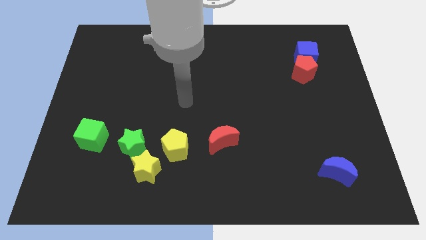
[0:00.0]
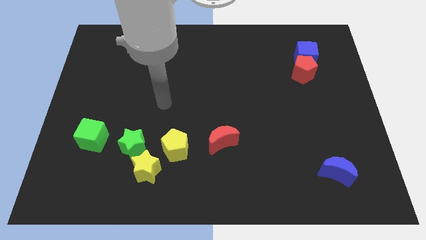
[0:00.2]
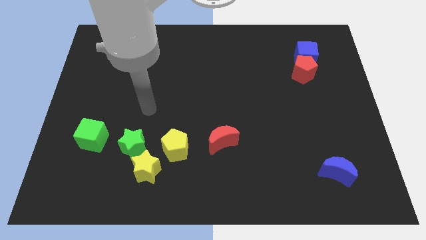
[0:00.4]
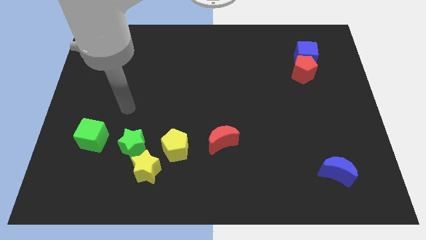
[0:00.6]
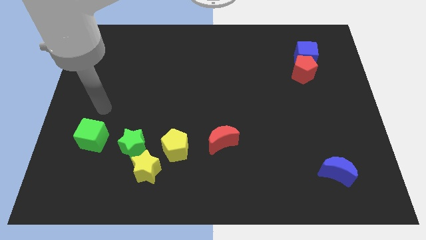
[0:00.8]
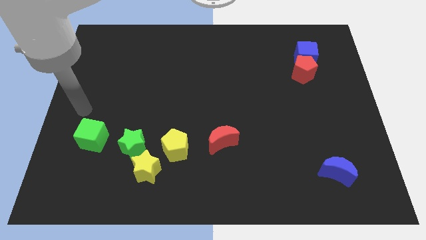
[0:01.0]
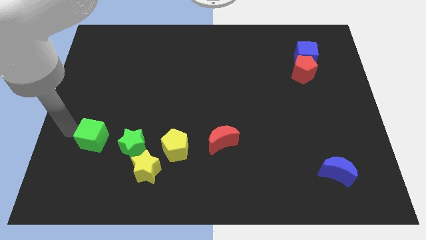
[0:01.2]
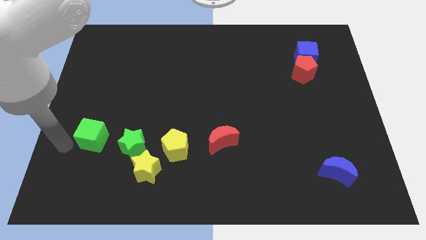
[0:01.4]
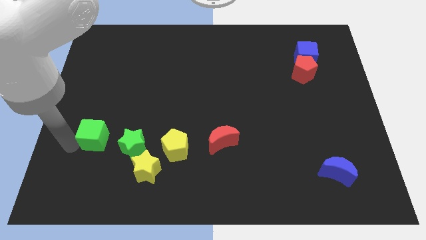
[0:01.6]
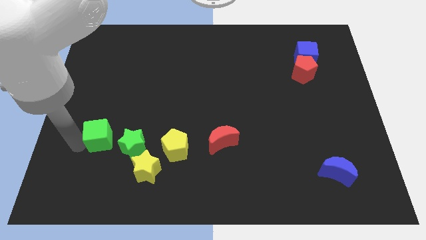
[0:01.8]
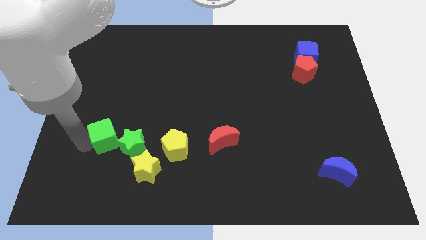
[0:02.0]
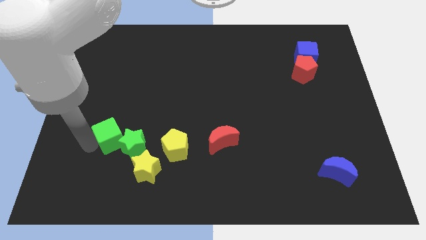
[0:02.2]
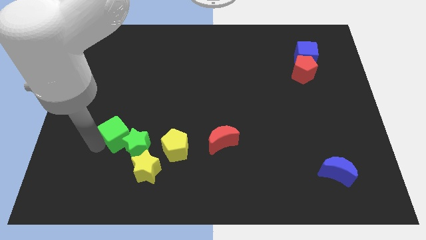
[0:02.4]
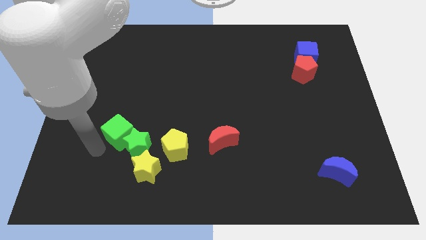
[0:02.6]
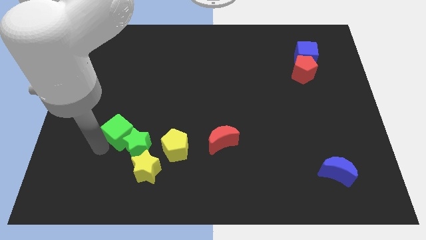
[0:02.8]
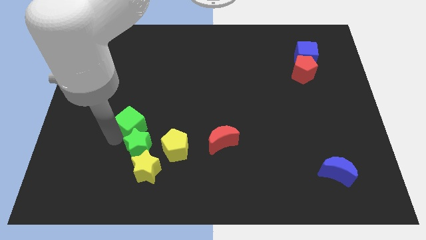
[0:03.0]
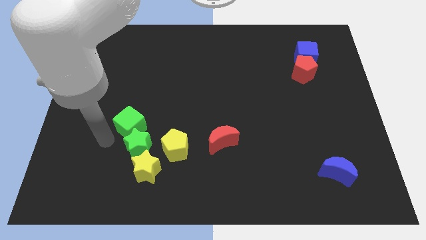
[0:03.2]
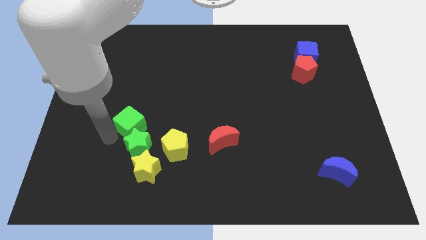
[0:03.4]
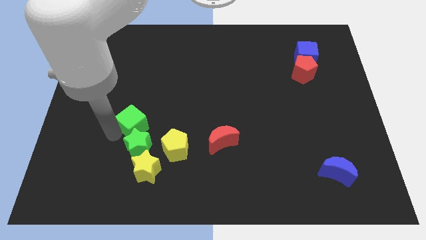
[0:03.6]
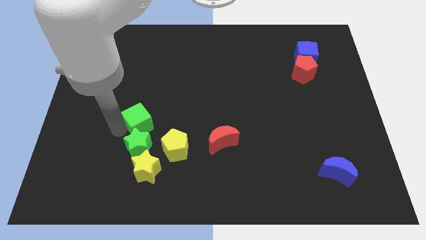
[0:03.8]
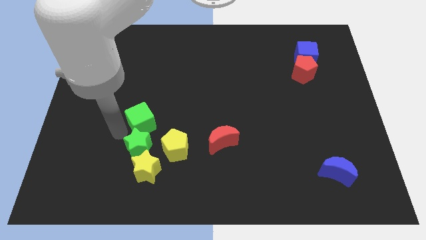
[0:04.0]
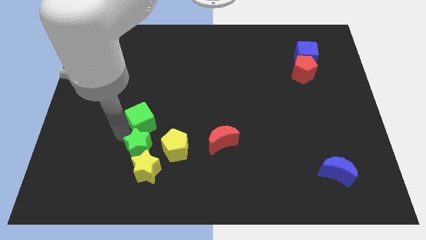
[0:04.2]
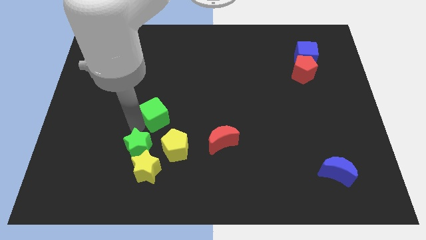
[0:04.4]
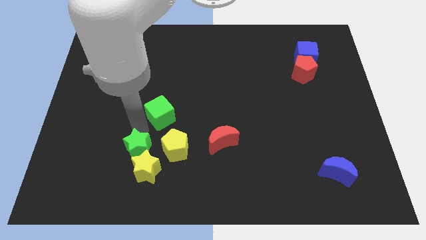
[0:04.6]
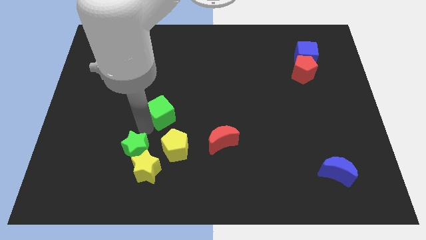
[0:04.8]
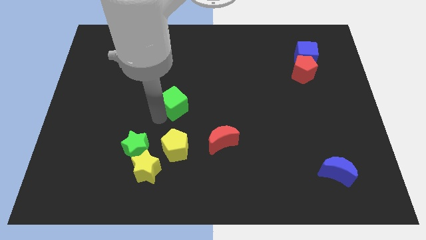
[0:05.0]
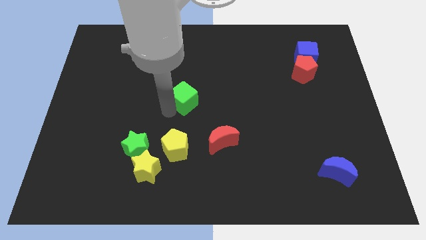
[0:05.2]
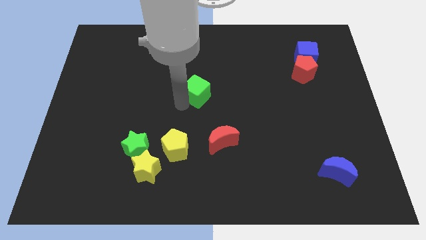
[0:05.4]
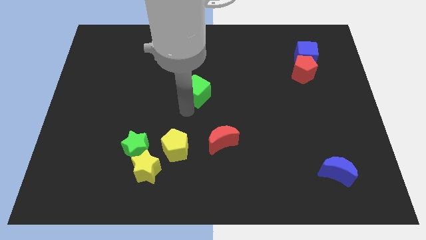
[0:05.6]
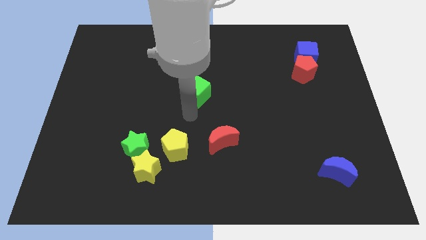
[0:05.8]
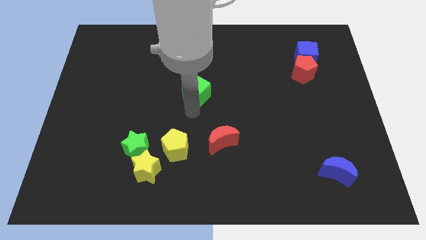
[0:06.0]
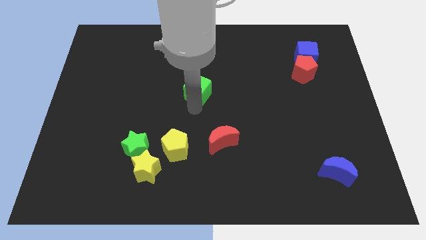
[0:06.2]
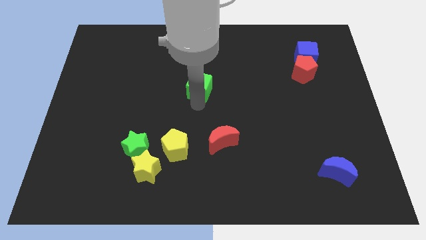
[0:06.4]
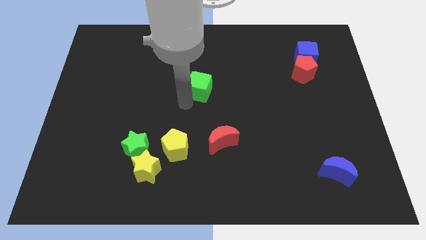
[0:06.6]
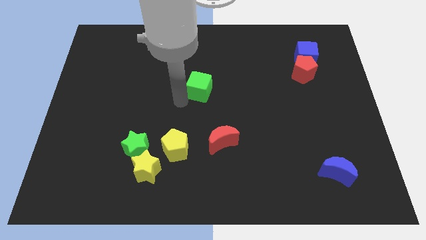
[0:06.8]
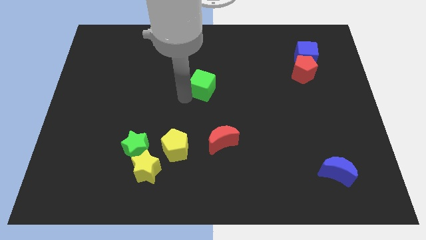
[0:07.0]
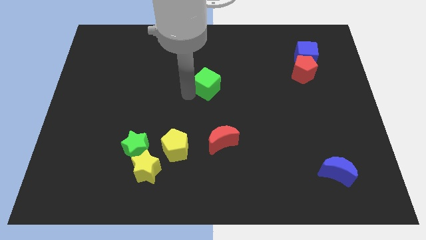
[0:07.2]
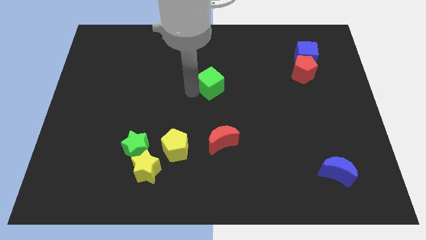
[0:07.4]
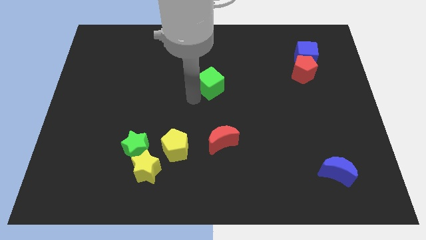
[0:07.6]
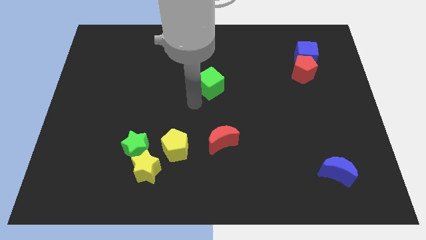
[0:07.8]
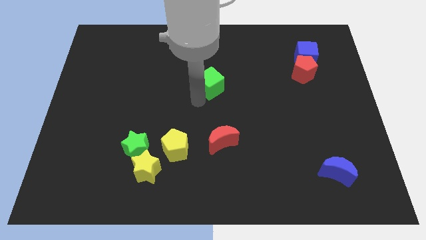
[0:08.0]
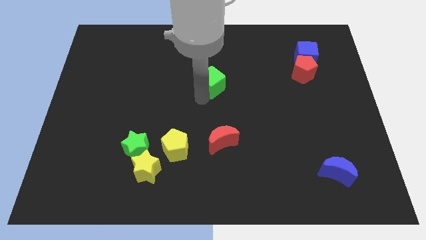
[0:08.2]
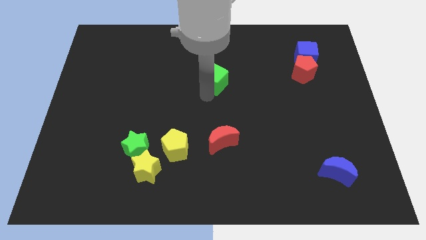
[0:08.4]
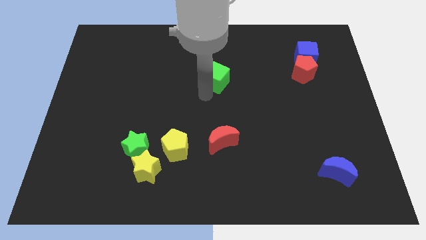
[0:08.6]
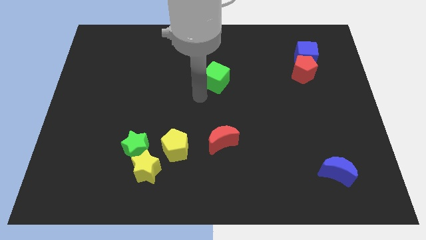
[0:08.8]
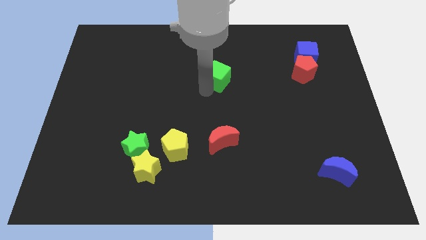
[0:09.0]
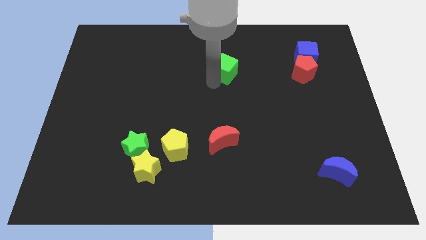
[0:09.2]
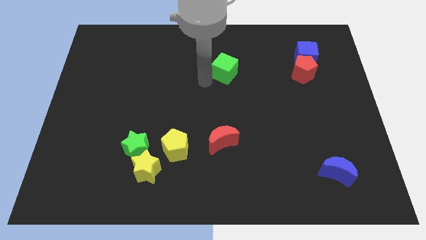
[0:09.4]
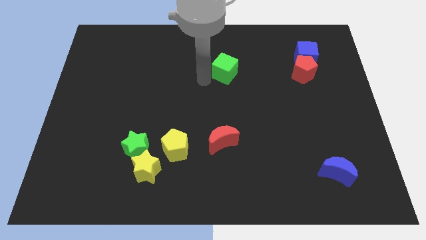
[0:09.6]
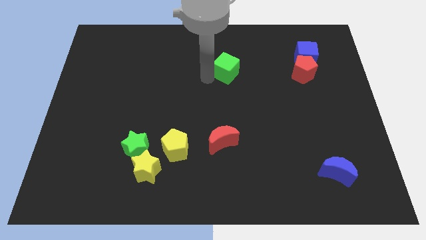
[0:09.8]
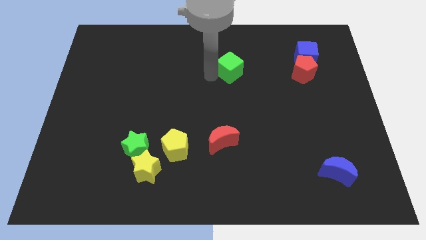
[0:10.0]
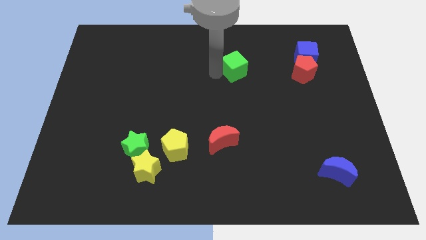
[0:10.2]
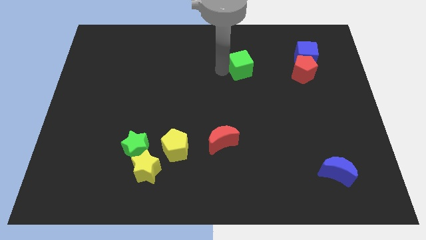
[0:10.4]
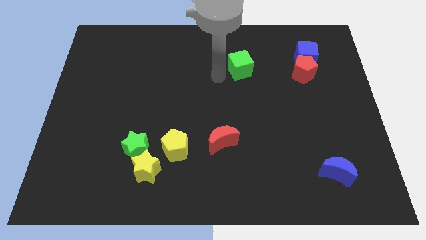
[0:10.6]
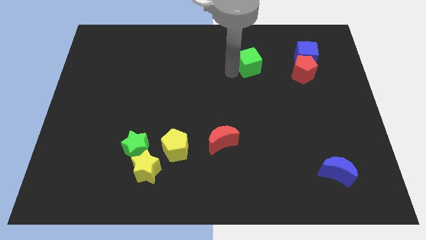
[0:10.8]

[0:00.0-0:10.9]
slide the green cube to the left of the blue cube

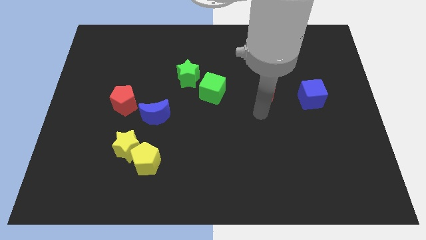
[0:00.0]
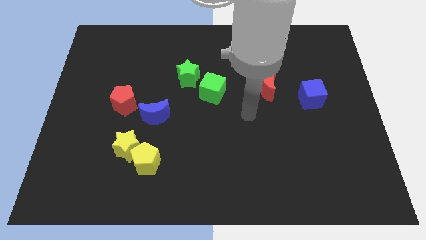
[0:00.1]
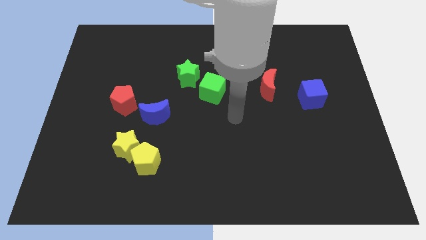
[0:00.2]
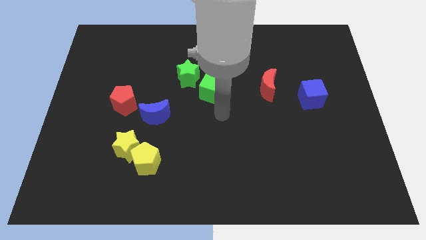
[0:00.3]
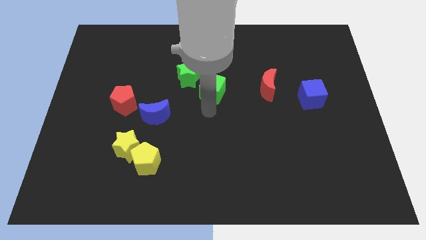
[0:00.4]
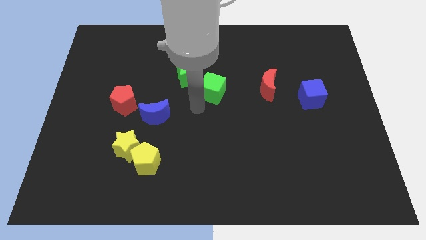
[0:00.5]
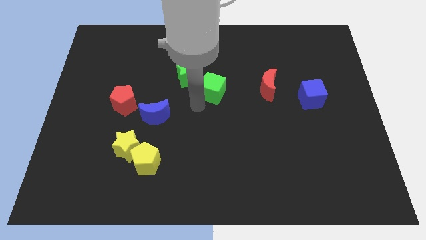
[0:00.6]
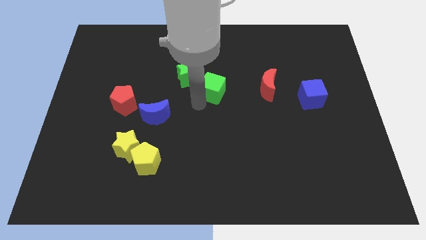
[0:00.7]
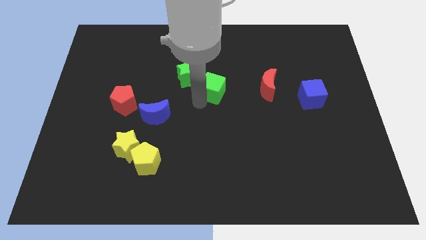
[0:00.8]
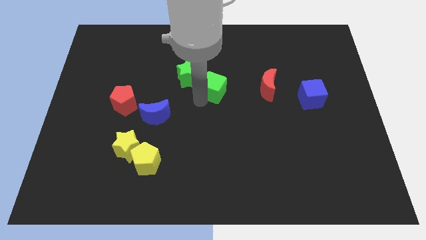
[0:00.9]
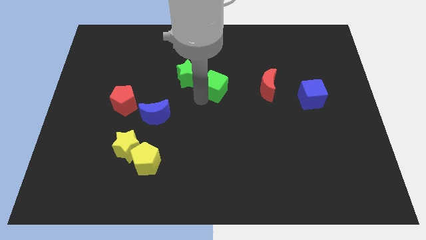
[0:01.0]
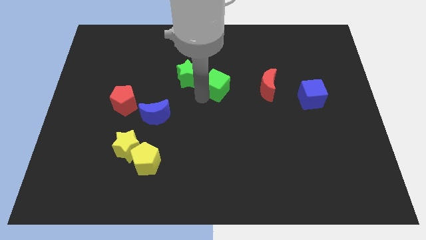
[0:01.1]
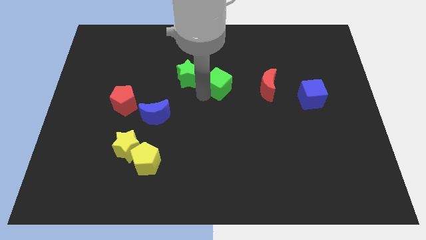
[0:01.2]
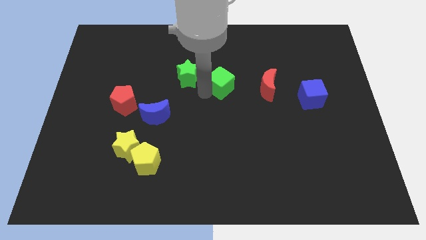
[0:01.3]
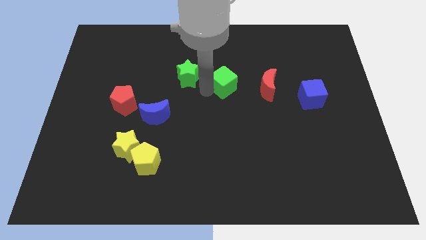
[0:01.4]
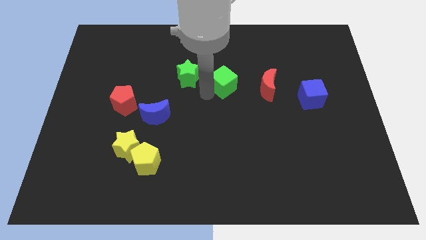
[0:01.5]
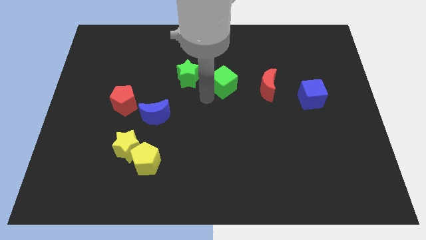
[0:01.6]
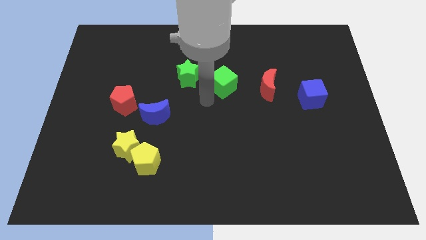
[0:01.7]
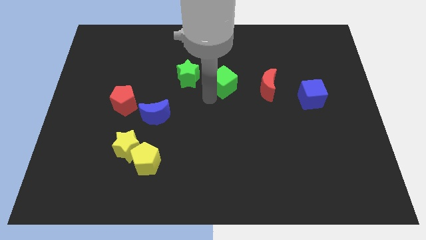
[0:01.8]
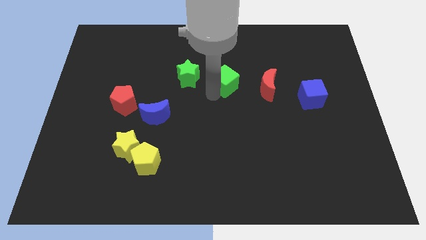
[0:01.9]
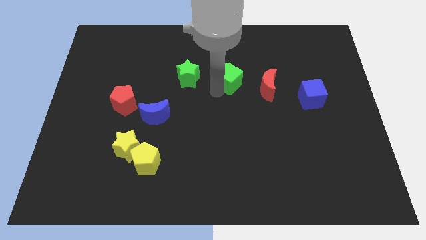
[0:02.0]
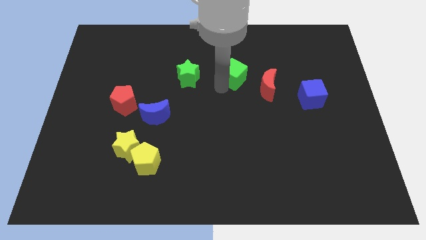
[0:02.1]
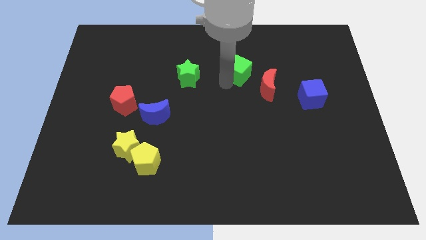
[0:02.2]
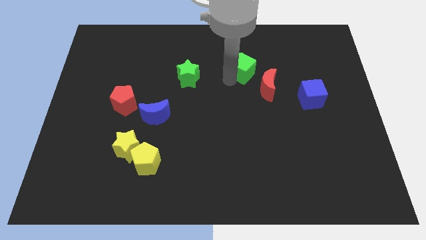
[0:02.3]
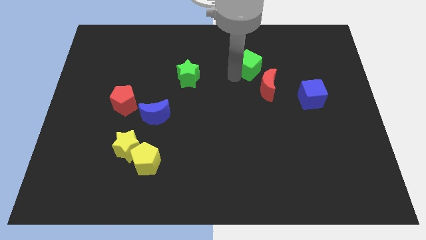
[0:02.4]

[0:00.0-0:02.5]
put the green cube to the top side of the red moon
